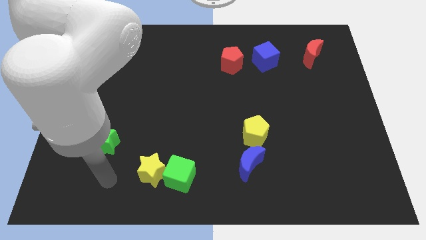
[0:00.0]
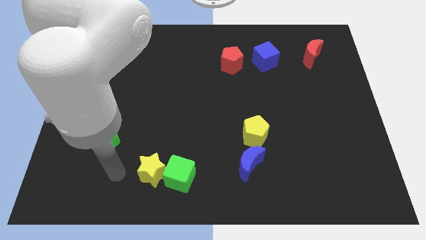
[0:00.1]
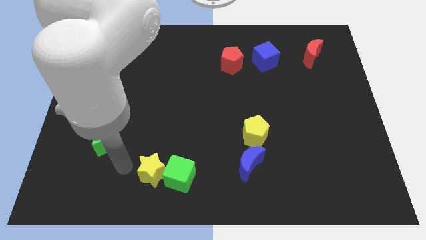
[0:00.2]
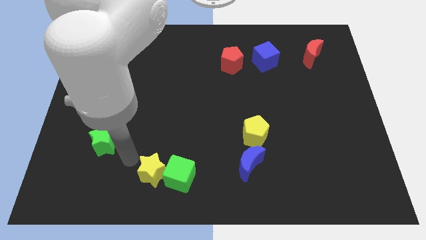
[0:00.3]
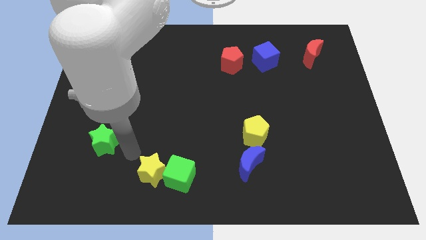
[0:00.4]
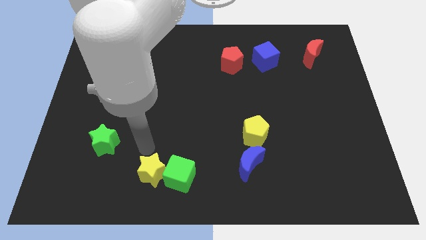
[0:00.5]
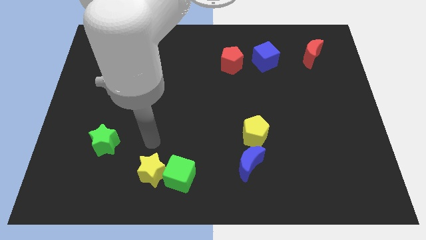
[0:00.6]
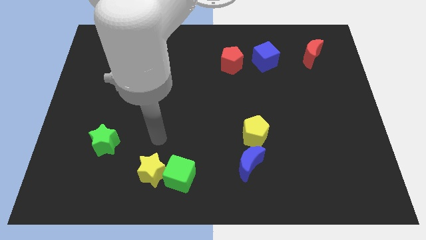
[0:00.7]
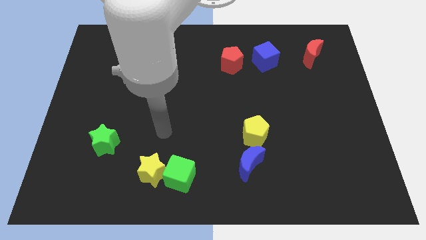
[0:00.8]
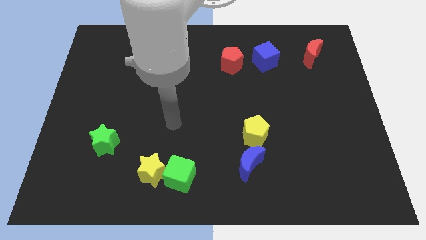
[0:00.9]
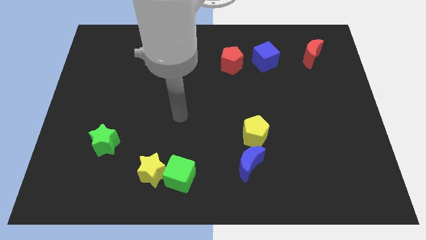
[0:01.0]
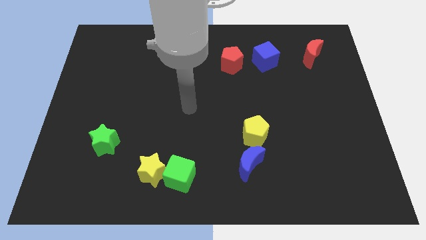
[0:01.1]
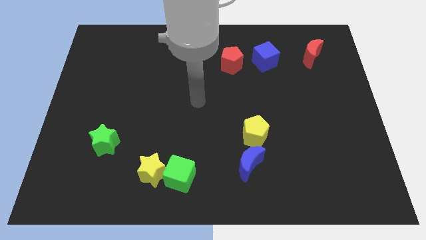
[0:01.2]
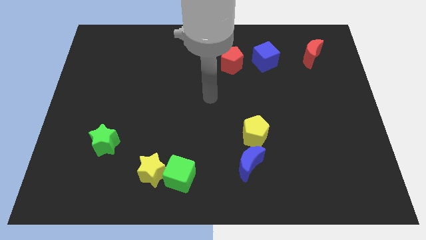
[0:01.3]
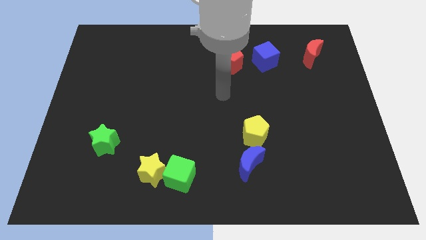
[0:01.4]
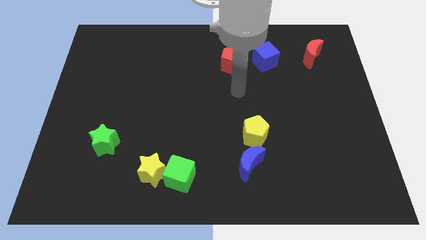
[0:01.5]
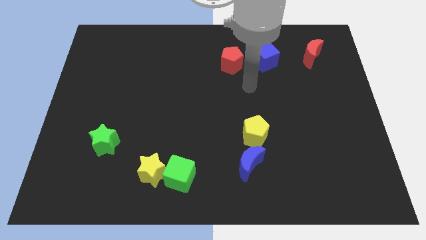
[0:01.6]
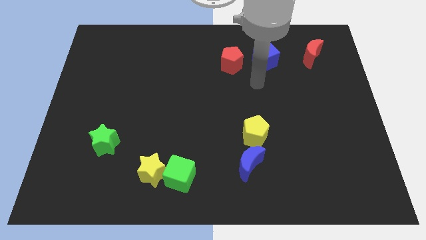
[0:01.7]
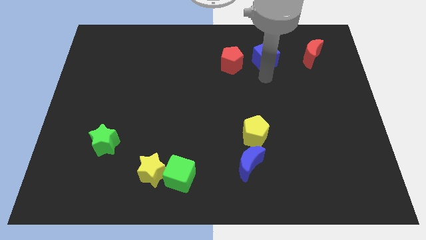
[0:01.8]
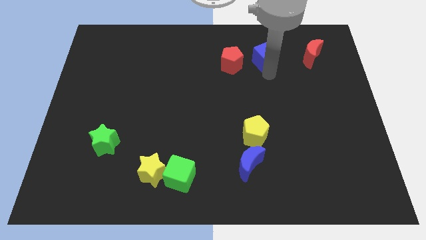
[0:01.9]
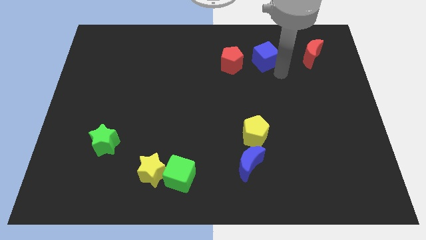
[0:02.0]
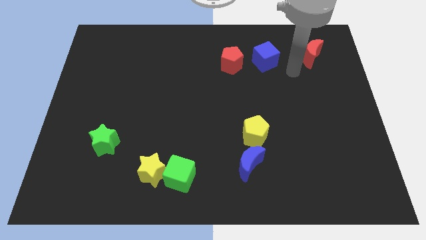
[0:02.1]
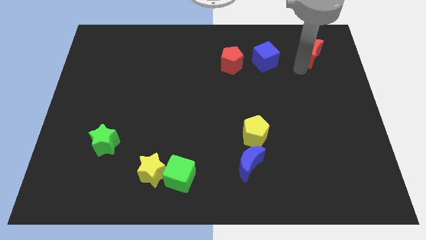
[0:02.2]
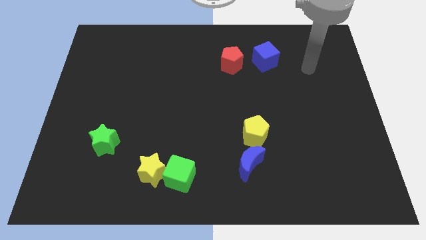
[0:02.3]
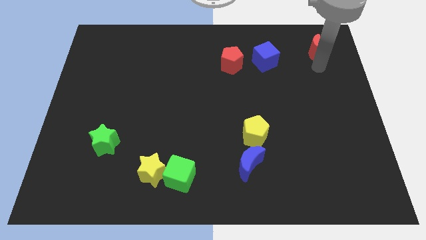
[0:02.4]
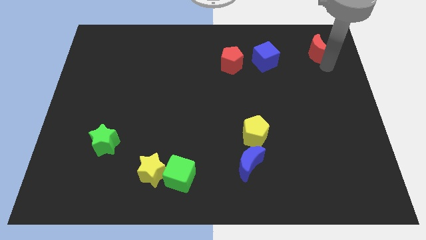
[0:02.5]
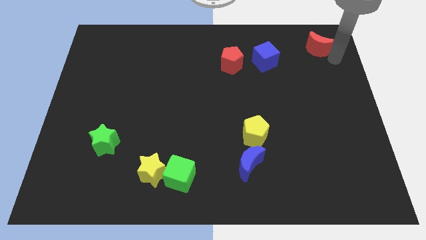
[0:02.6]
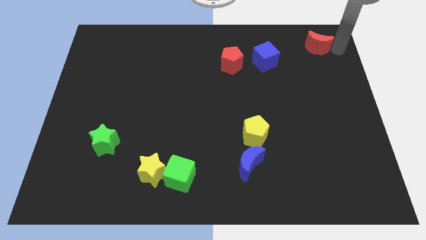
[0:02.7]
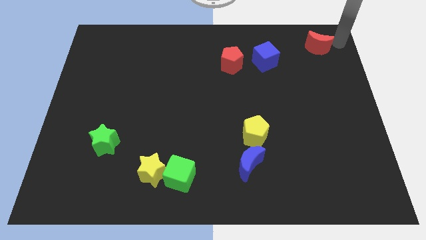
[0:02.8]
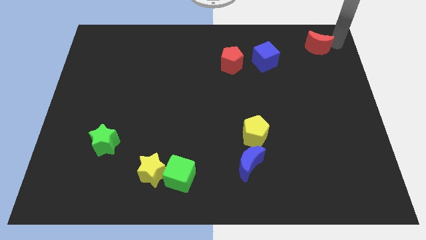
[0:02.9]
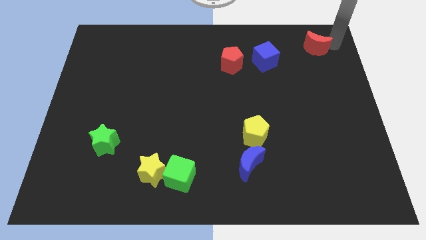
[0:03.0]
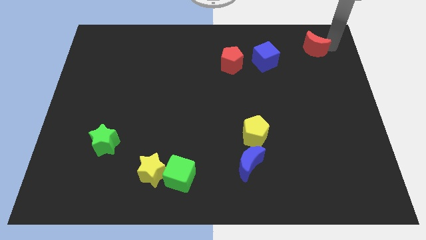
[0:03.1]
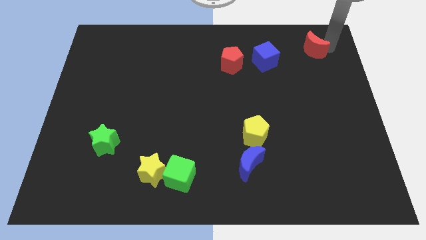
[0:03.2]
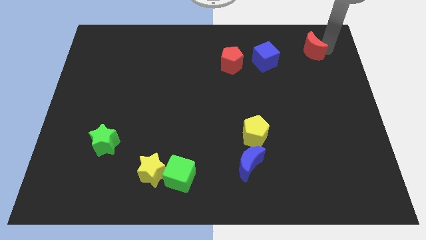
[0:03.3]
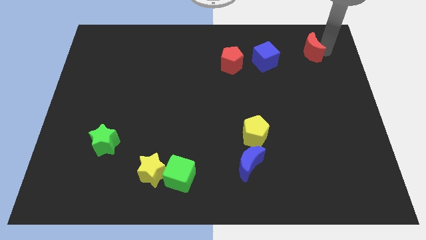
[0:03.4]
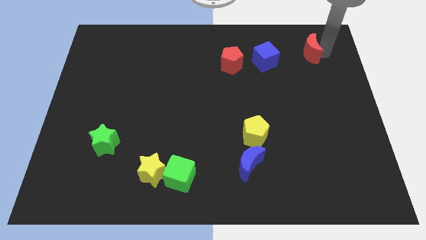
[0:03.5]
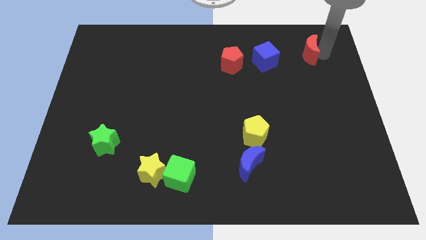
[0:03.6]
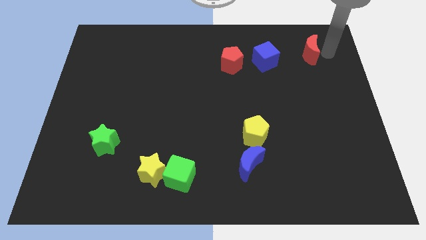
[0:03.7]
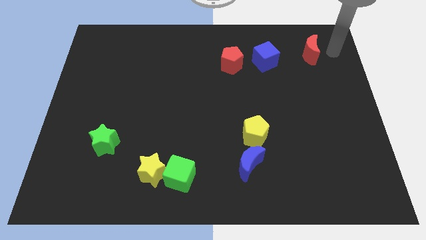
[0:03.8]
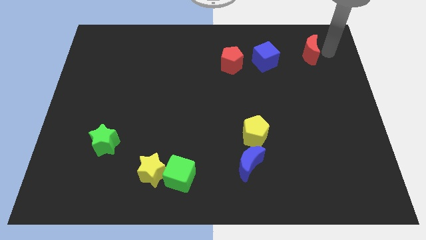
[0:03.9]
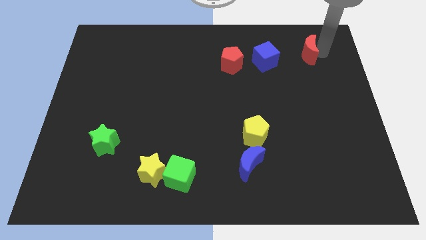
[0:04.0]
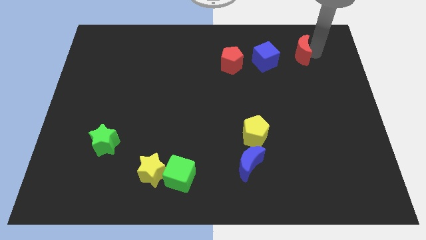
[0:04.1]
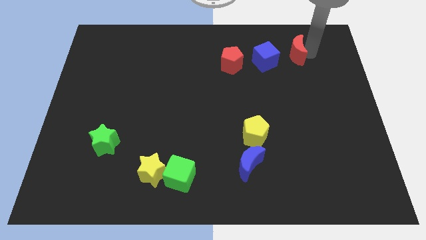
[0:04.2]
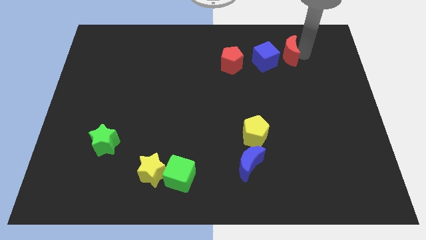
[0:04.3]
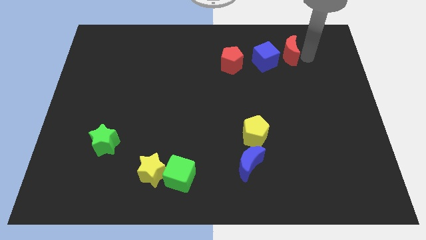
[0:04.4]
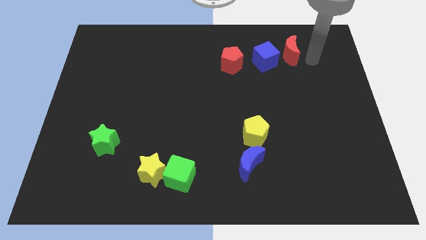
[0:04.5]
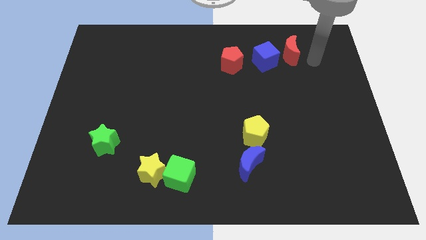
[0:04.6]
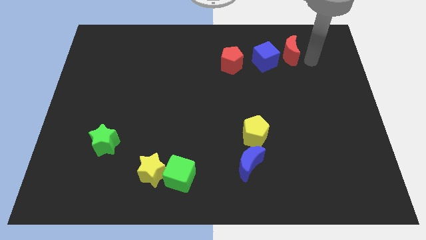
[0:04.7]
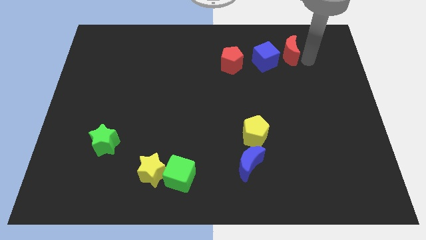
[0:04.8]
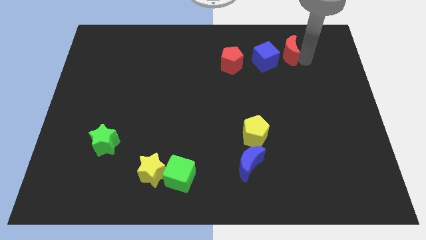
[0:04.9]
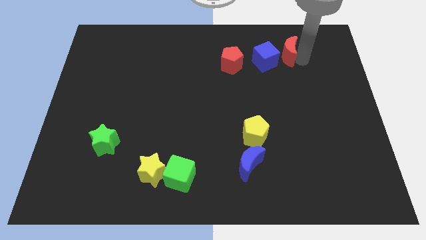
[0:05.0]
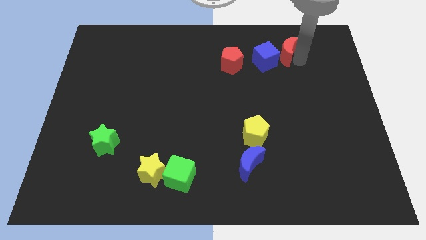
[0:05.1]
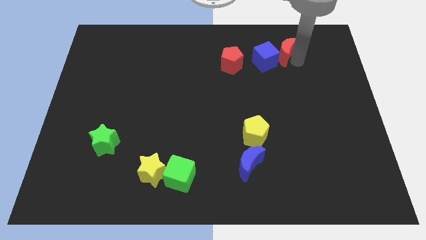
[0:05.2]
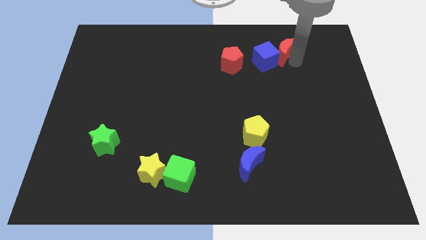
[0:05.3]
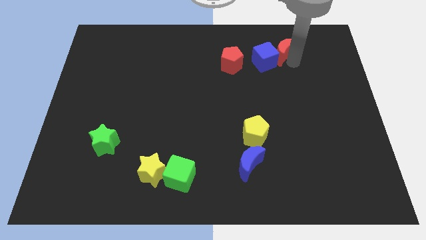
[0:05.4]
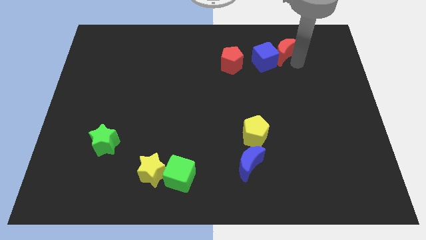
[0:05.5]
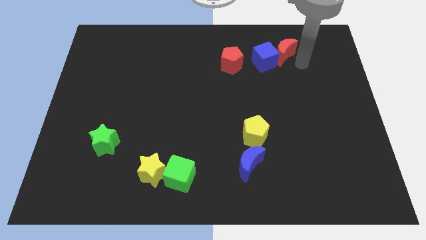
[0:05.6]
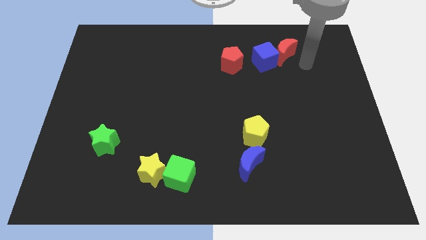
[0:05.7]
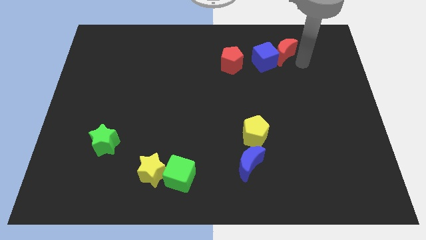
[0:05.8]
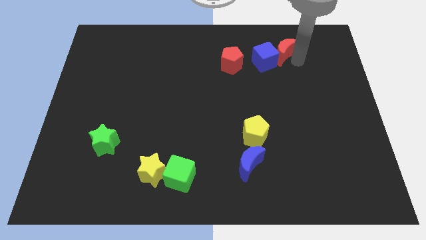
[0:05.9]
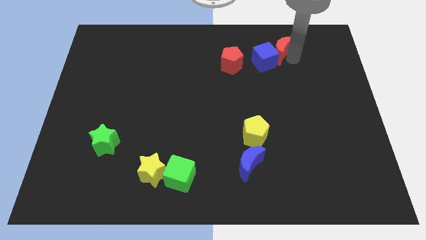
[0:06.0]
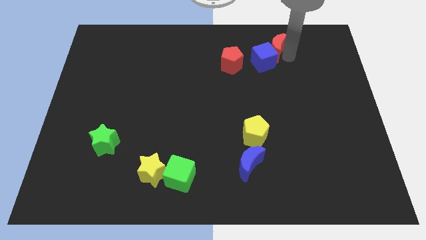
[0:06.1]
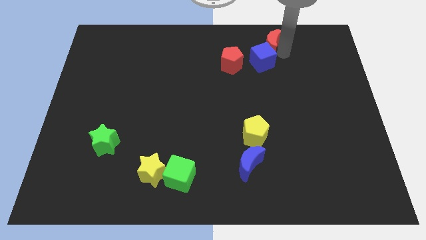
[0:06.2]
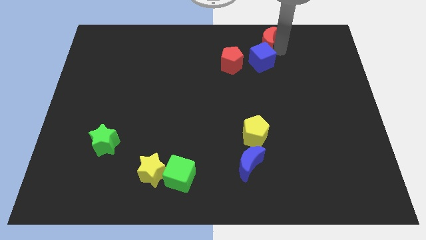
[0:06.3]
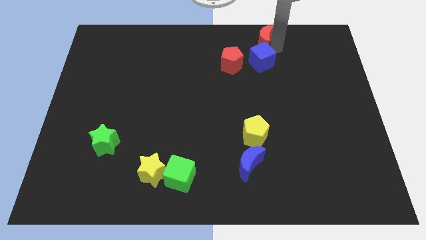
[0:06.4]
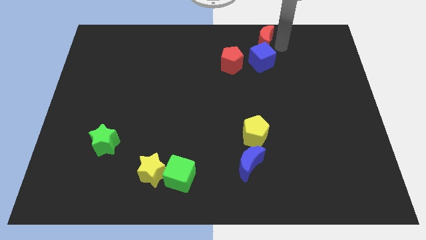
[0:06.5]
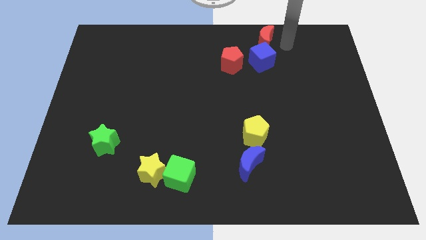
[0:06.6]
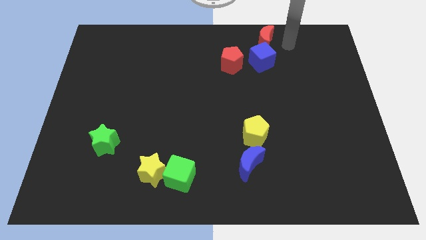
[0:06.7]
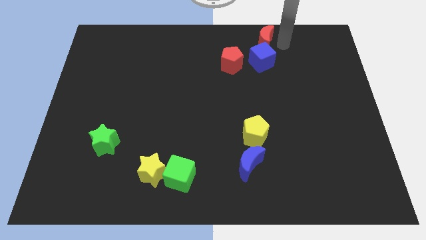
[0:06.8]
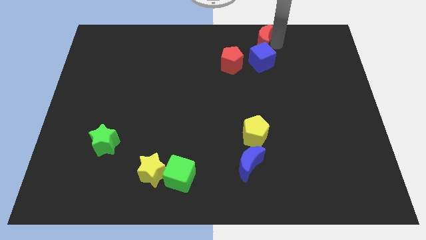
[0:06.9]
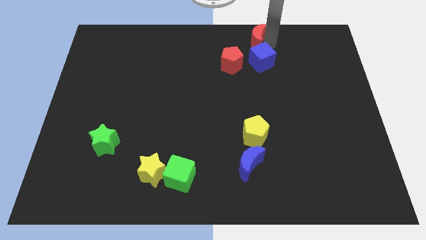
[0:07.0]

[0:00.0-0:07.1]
slide the red moon to the top side
